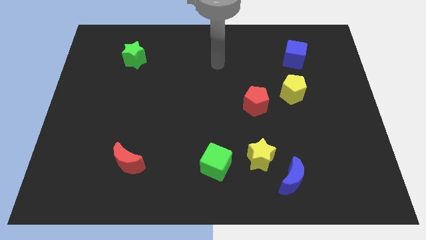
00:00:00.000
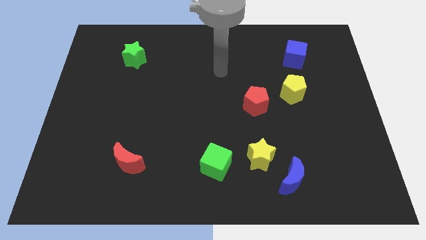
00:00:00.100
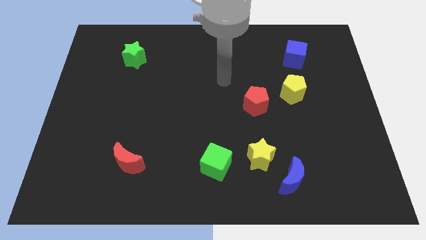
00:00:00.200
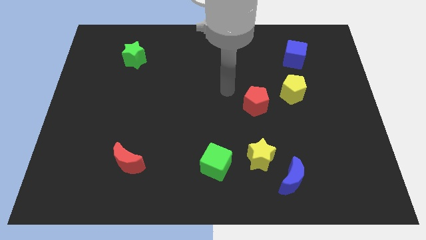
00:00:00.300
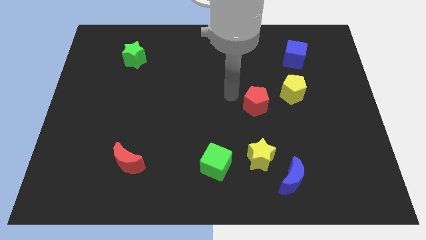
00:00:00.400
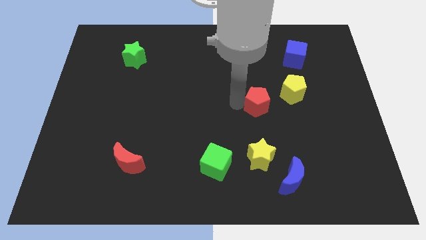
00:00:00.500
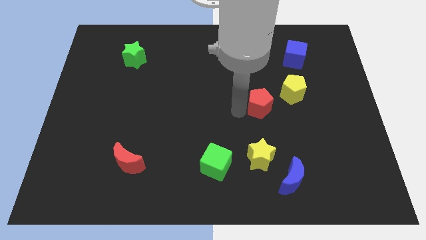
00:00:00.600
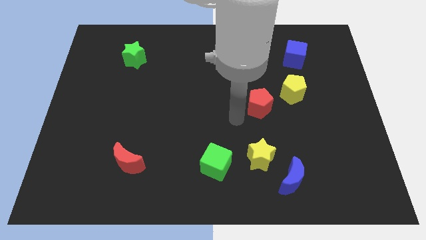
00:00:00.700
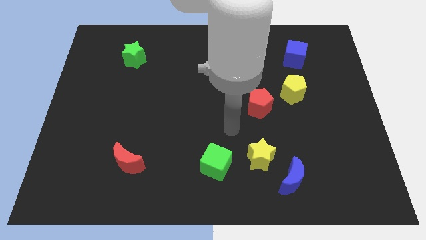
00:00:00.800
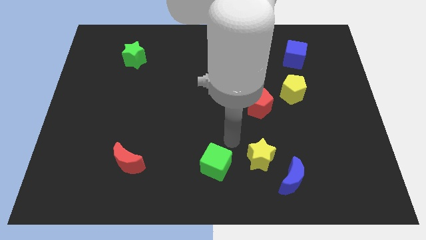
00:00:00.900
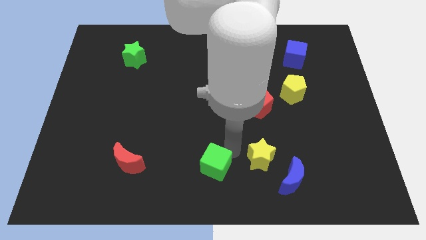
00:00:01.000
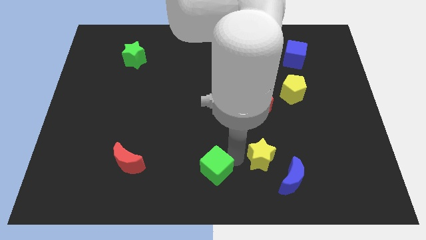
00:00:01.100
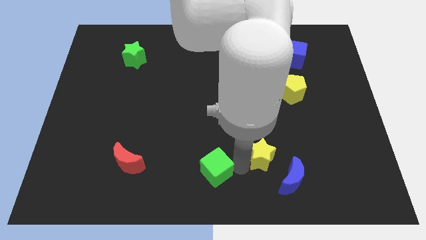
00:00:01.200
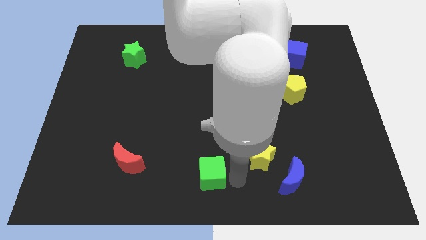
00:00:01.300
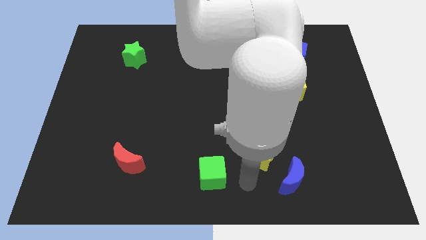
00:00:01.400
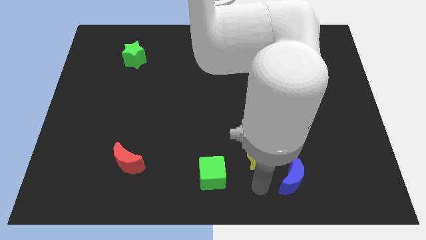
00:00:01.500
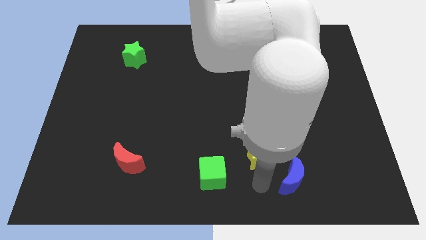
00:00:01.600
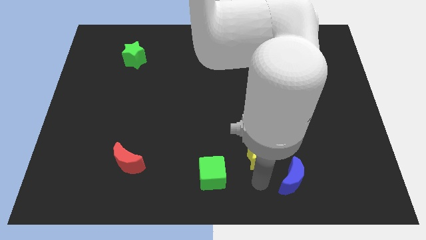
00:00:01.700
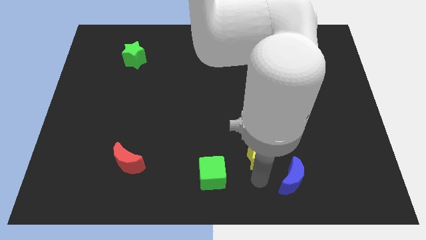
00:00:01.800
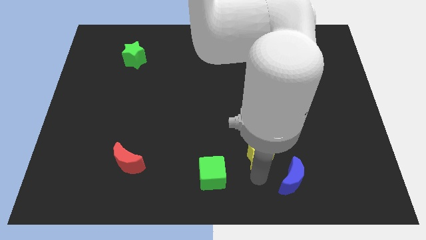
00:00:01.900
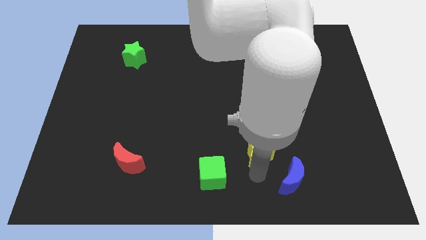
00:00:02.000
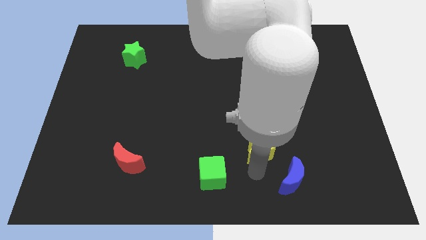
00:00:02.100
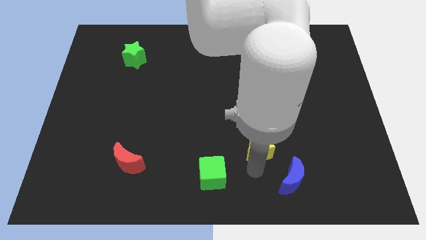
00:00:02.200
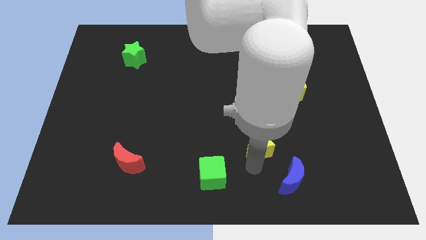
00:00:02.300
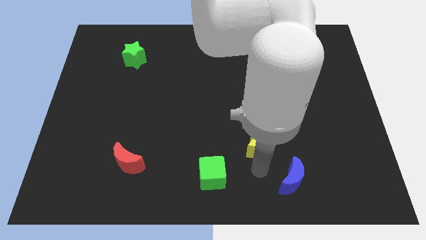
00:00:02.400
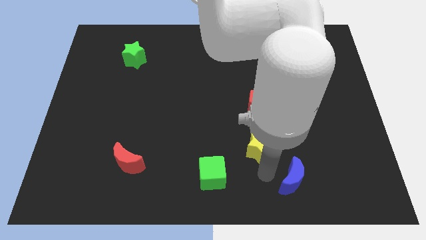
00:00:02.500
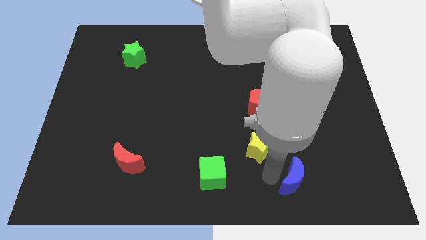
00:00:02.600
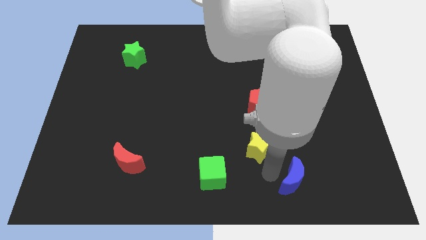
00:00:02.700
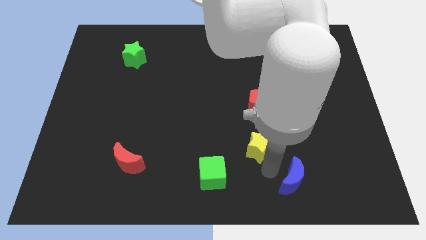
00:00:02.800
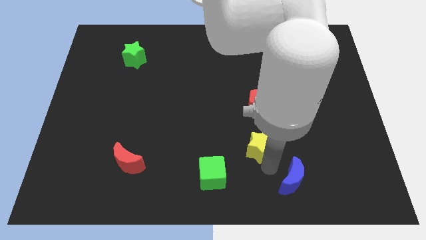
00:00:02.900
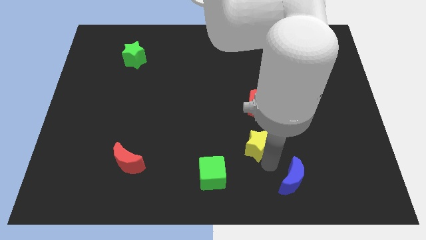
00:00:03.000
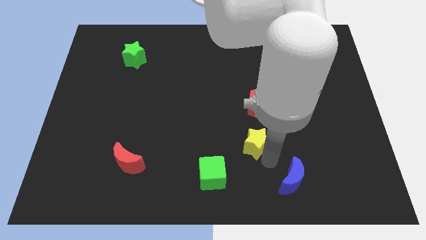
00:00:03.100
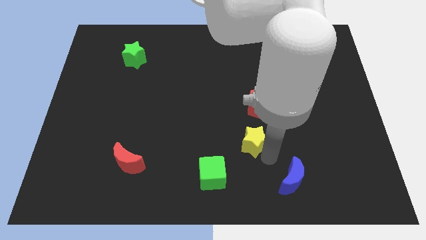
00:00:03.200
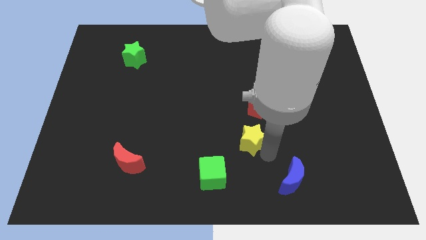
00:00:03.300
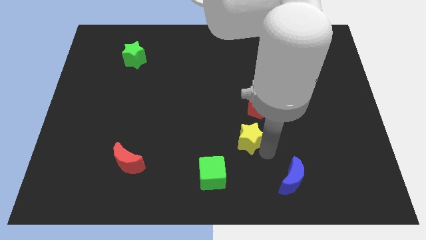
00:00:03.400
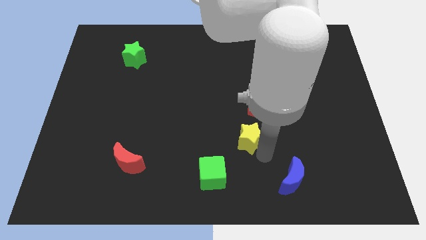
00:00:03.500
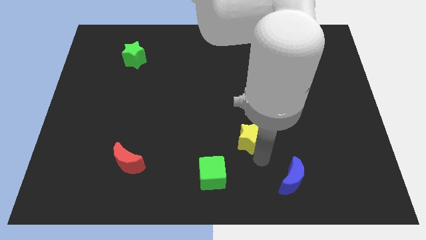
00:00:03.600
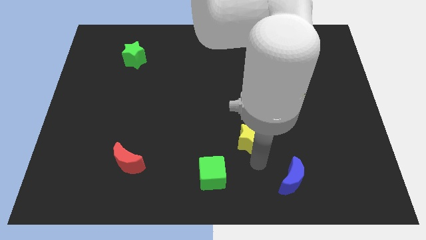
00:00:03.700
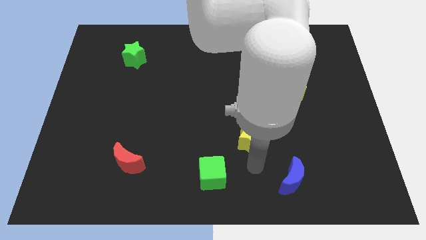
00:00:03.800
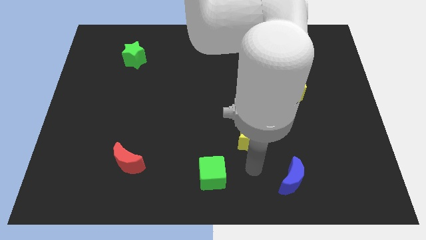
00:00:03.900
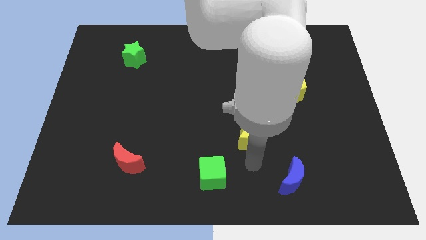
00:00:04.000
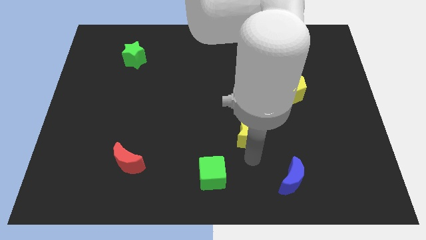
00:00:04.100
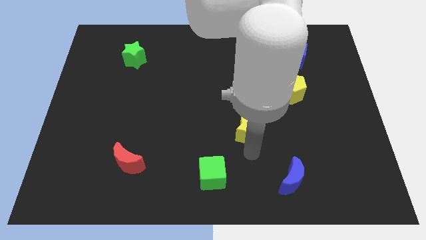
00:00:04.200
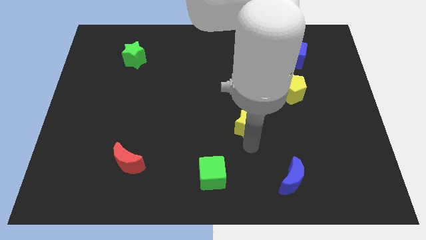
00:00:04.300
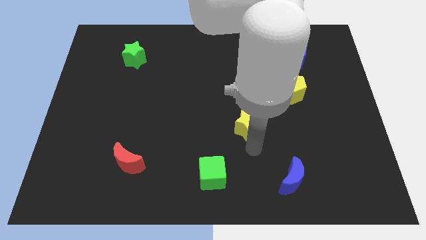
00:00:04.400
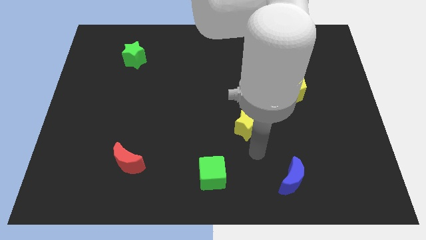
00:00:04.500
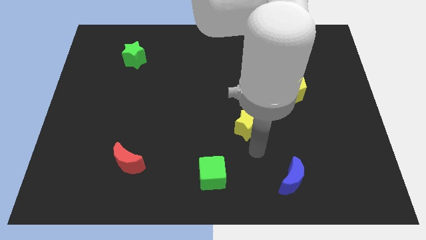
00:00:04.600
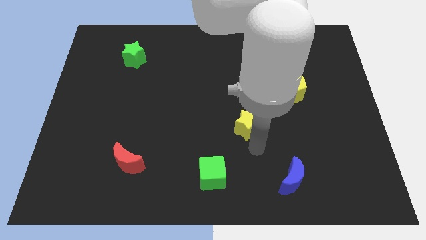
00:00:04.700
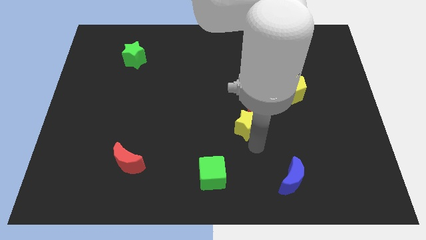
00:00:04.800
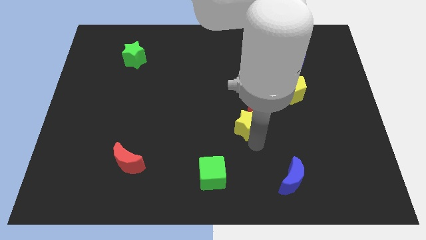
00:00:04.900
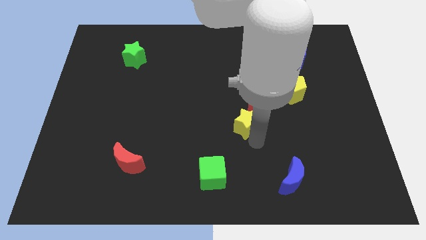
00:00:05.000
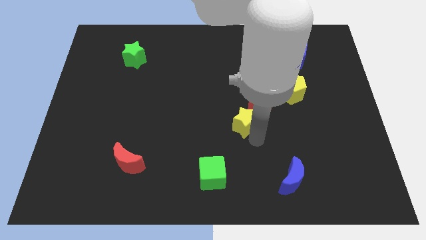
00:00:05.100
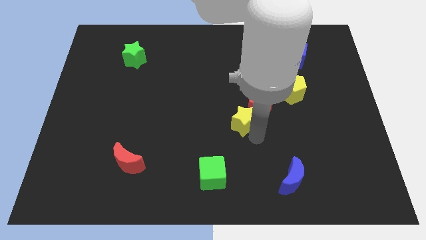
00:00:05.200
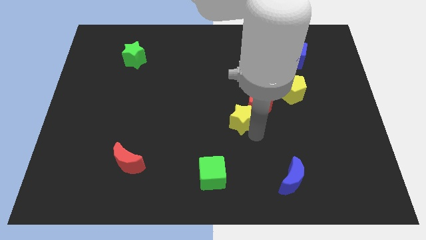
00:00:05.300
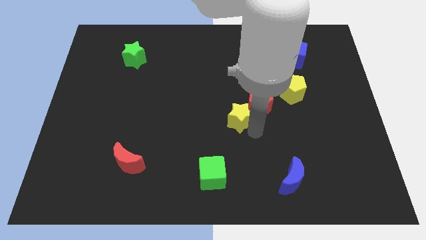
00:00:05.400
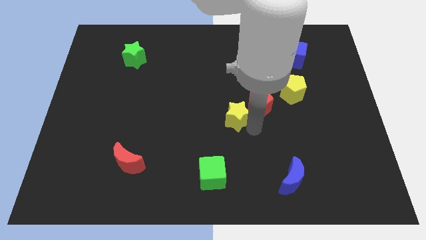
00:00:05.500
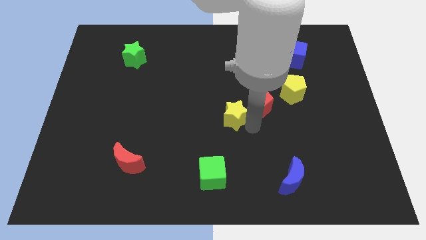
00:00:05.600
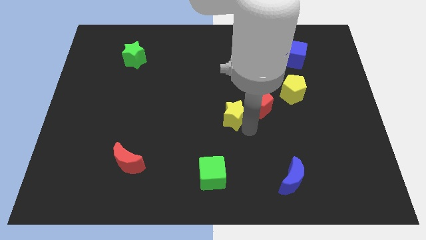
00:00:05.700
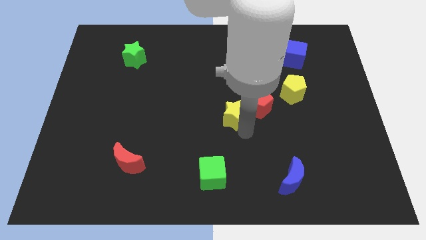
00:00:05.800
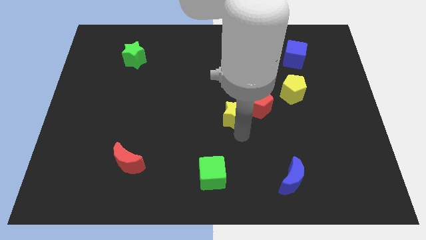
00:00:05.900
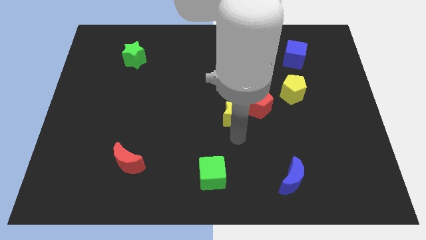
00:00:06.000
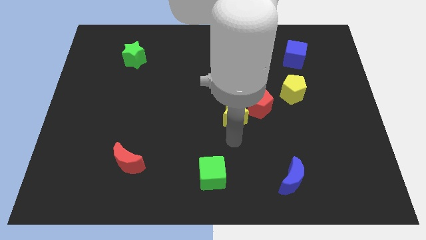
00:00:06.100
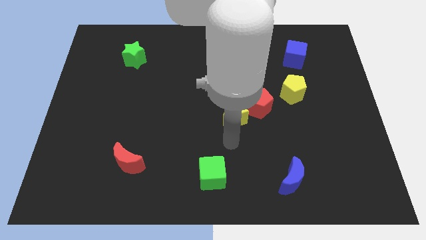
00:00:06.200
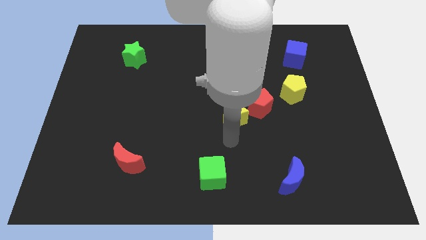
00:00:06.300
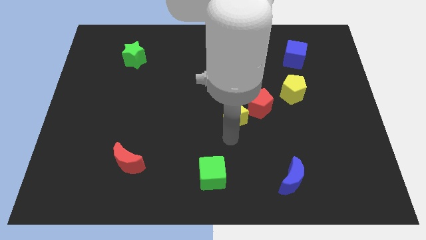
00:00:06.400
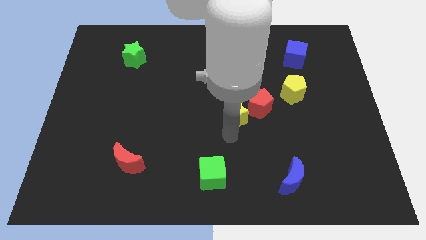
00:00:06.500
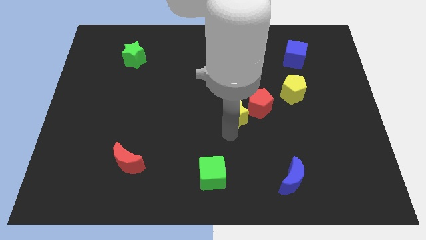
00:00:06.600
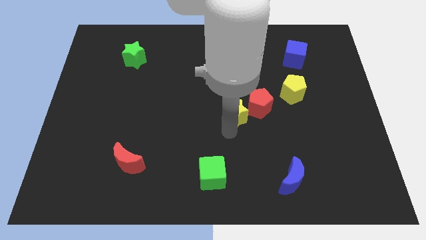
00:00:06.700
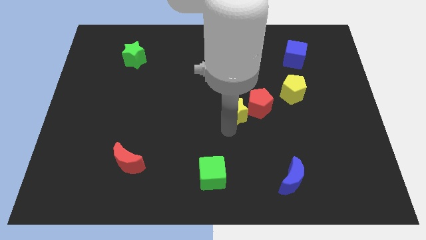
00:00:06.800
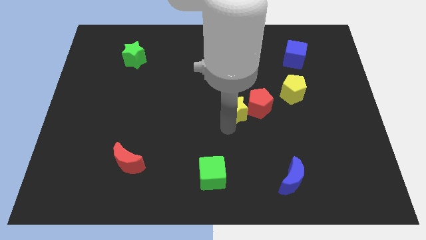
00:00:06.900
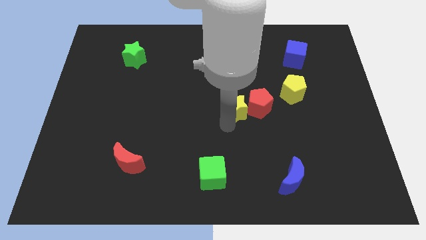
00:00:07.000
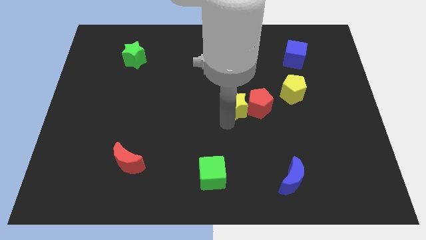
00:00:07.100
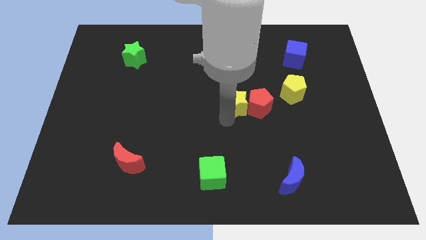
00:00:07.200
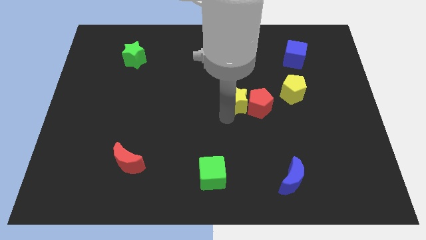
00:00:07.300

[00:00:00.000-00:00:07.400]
slide the yellow star just left of the yellow pentagon
